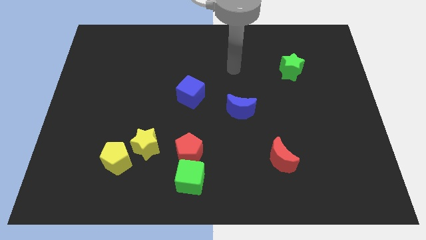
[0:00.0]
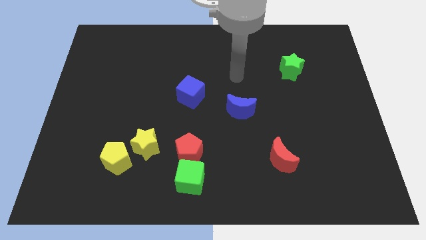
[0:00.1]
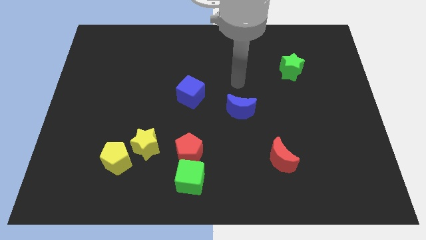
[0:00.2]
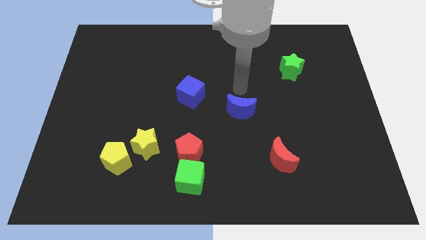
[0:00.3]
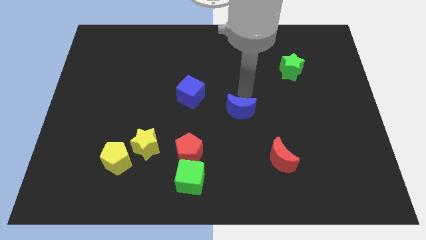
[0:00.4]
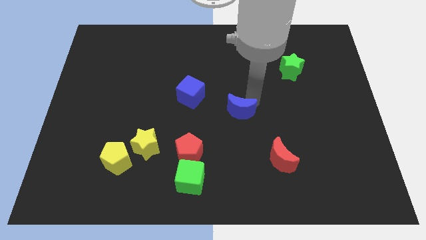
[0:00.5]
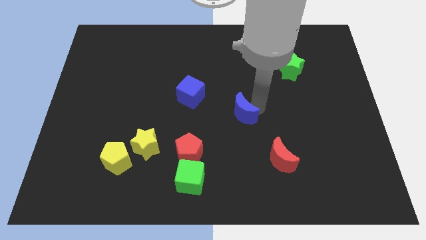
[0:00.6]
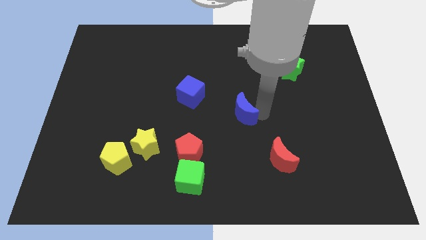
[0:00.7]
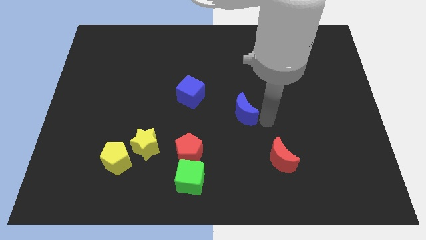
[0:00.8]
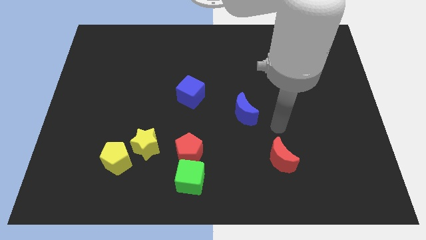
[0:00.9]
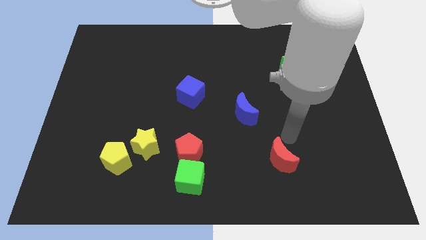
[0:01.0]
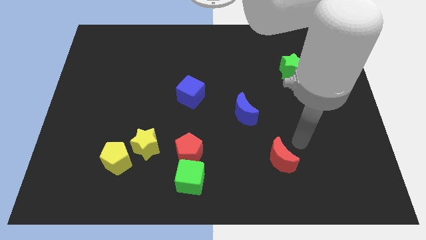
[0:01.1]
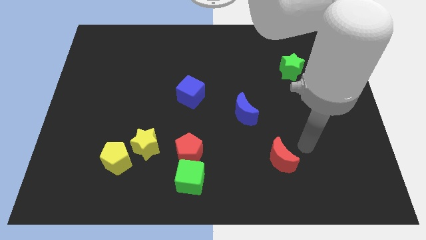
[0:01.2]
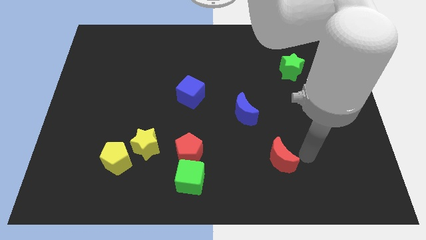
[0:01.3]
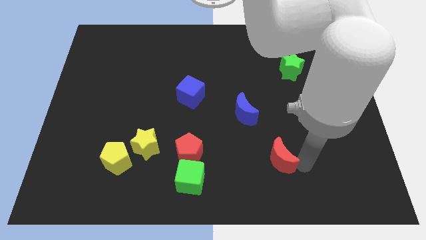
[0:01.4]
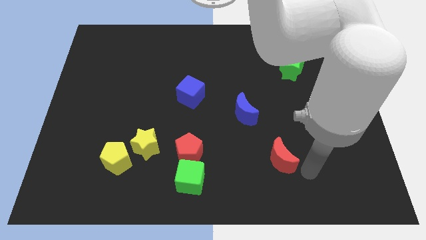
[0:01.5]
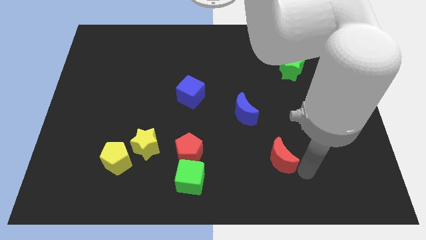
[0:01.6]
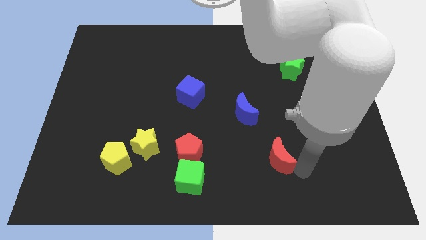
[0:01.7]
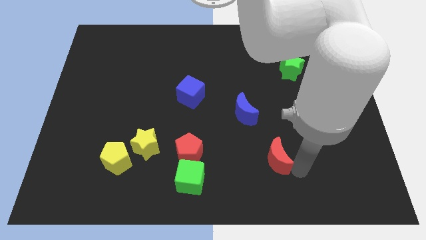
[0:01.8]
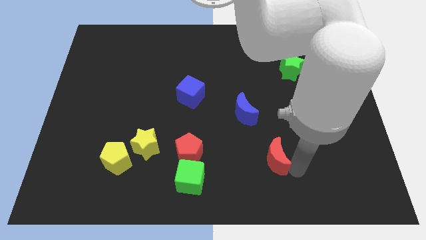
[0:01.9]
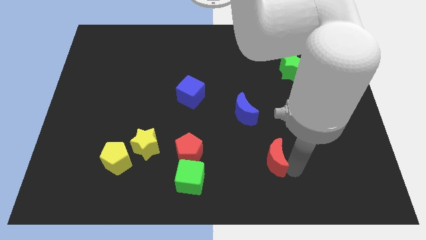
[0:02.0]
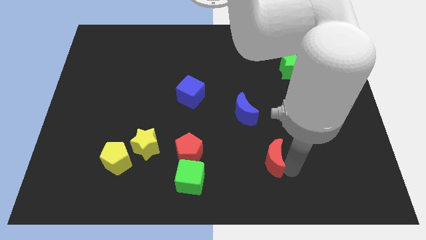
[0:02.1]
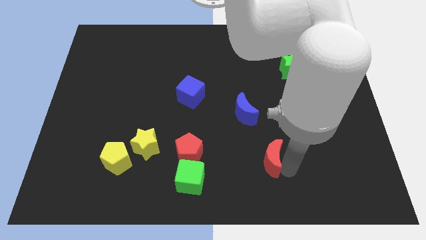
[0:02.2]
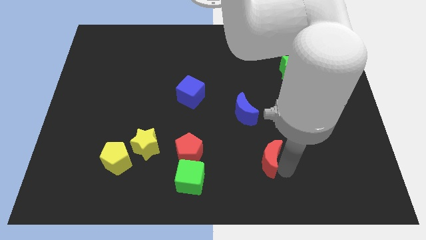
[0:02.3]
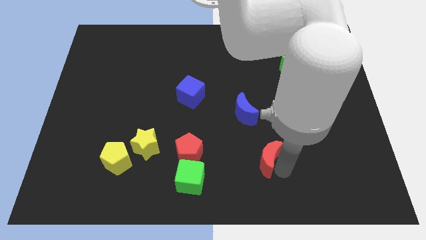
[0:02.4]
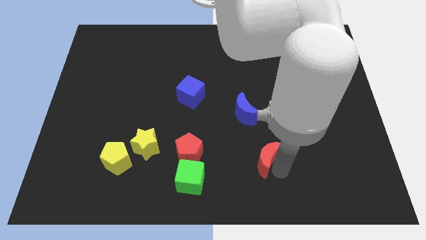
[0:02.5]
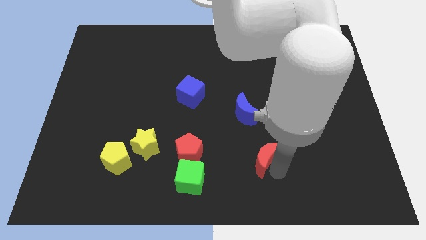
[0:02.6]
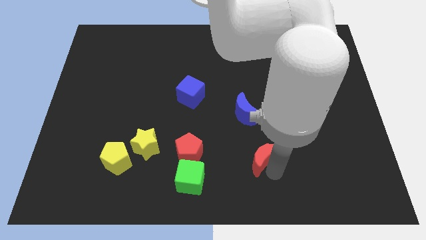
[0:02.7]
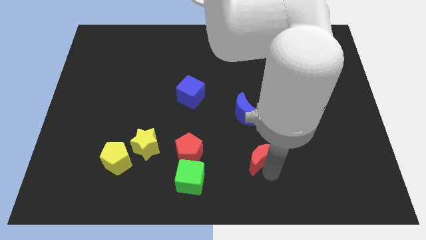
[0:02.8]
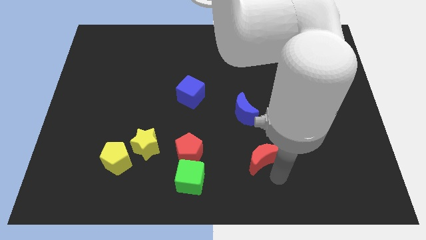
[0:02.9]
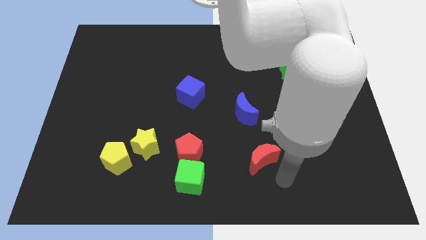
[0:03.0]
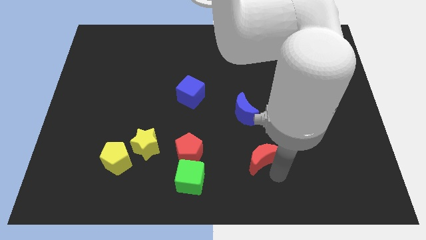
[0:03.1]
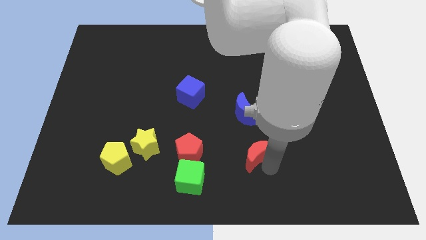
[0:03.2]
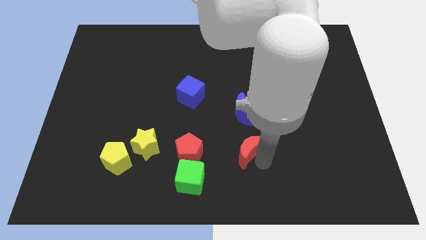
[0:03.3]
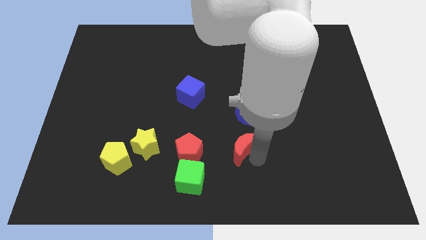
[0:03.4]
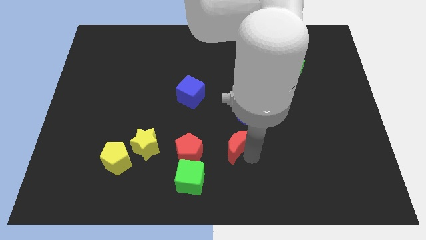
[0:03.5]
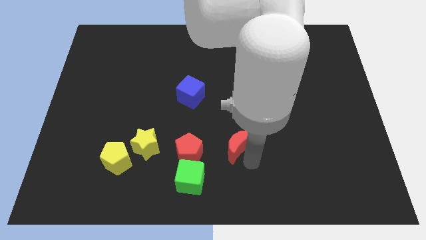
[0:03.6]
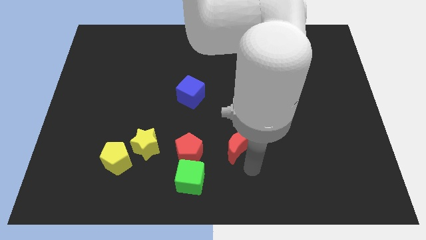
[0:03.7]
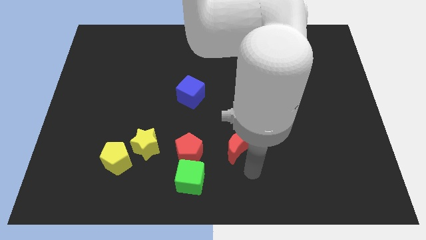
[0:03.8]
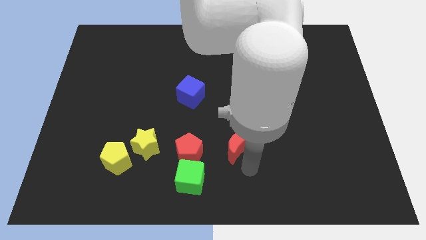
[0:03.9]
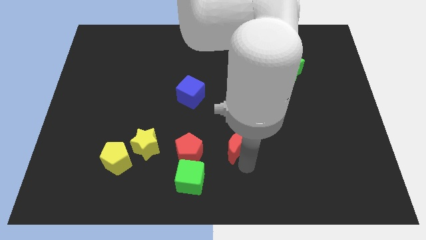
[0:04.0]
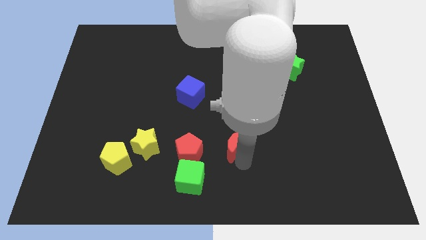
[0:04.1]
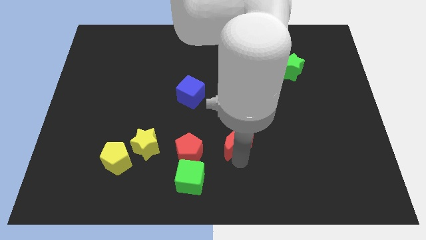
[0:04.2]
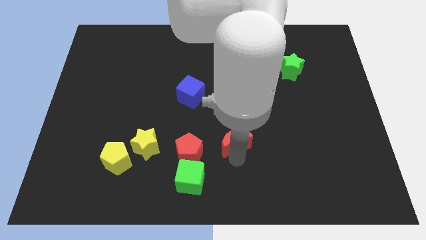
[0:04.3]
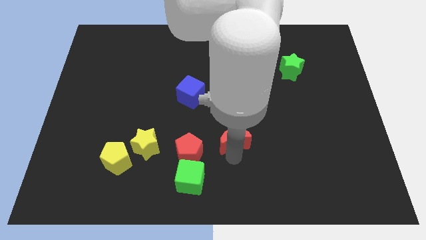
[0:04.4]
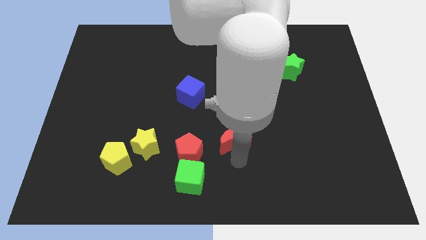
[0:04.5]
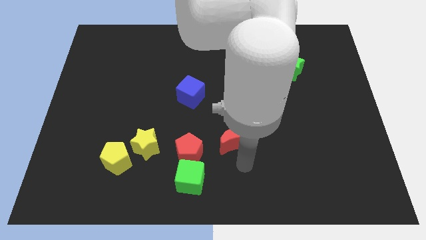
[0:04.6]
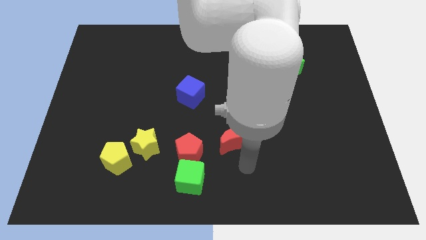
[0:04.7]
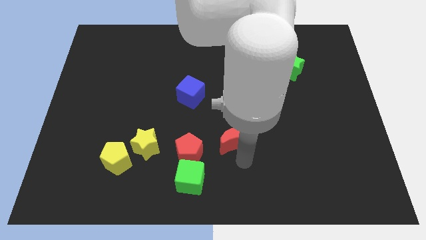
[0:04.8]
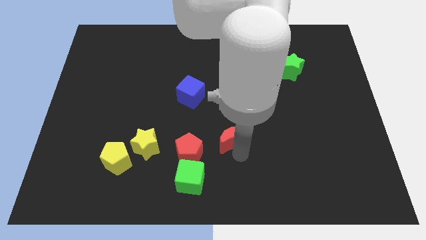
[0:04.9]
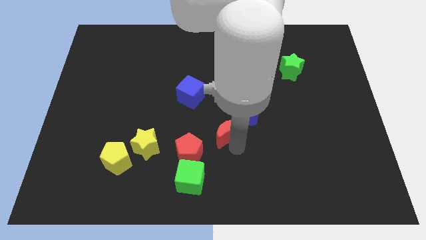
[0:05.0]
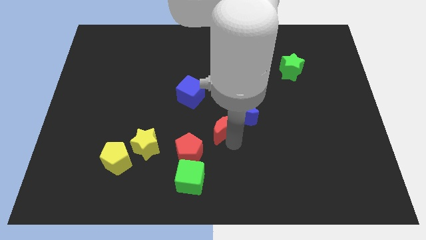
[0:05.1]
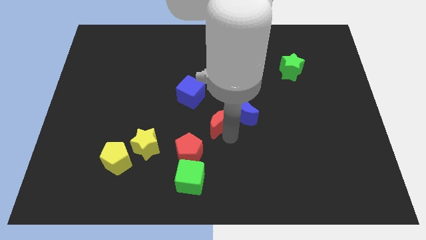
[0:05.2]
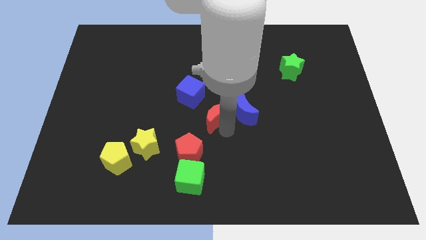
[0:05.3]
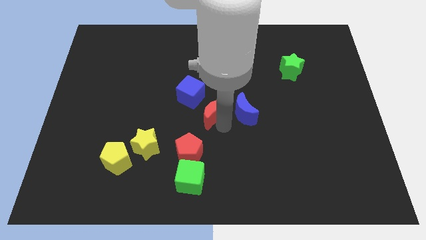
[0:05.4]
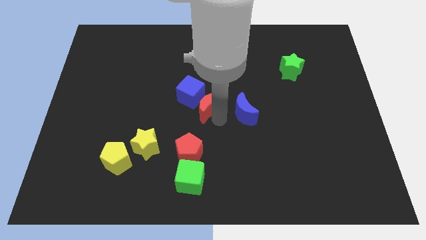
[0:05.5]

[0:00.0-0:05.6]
push the red moon towards the blue cube

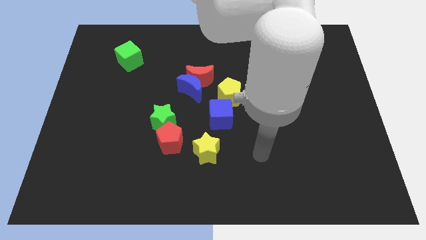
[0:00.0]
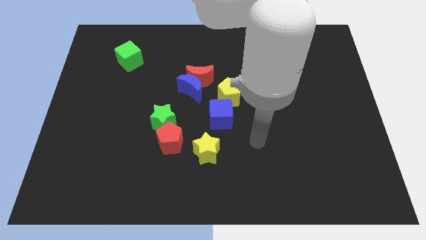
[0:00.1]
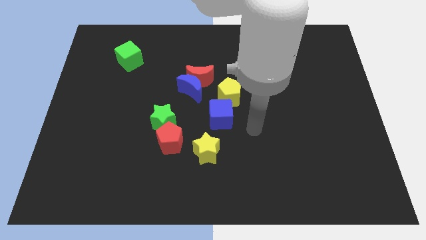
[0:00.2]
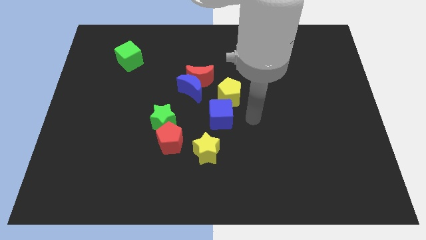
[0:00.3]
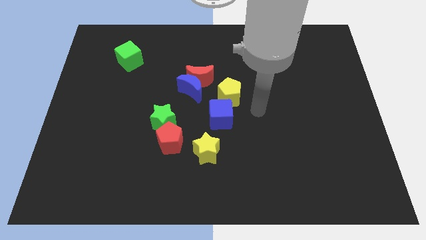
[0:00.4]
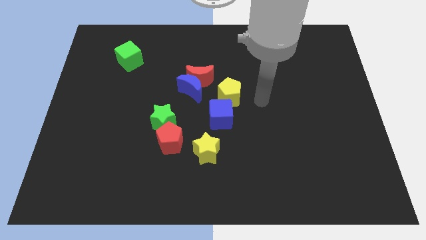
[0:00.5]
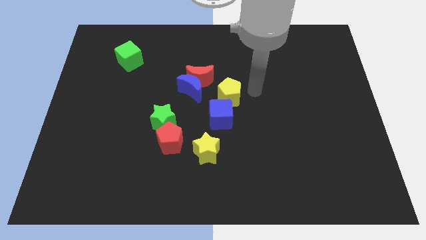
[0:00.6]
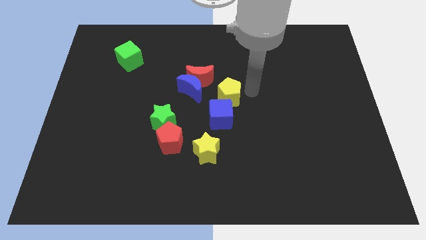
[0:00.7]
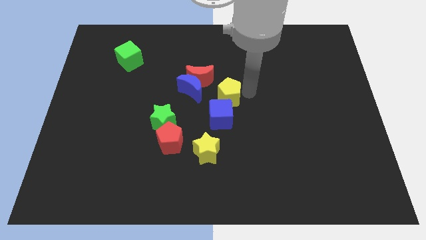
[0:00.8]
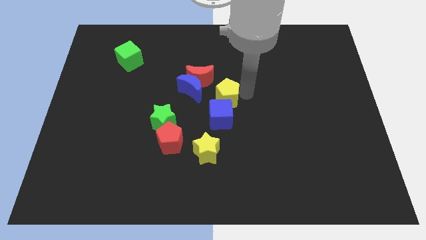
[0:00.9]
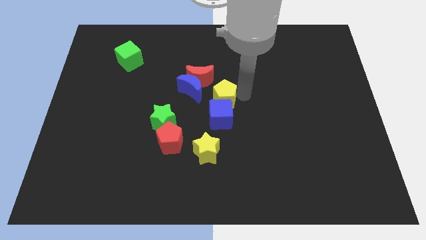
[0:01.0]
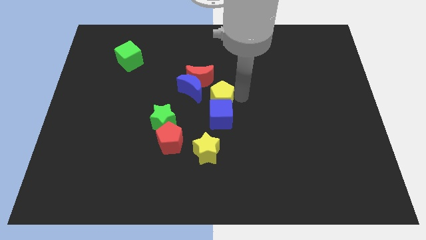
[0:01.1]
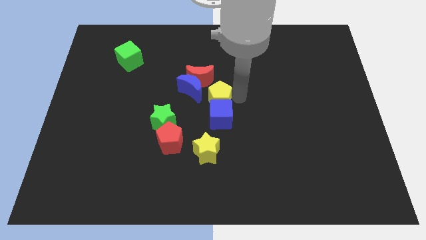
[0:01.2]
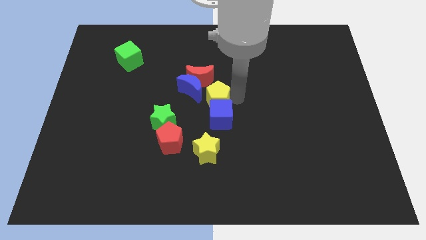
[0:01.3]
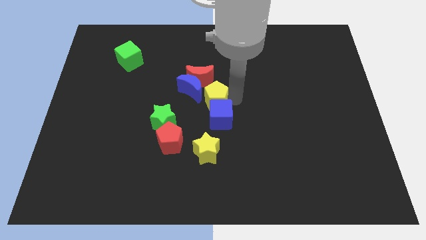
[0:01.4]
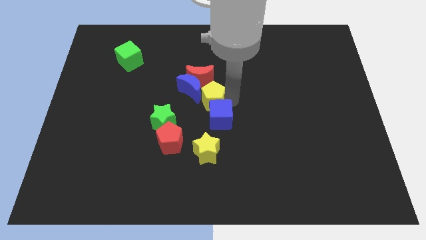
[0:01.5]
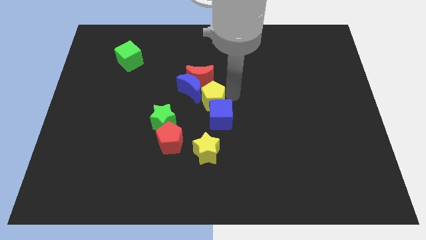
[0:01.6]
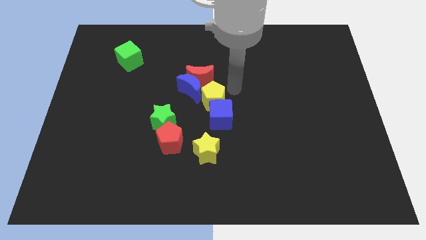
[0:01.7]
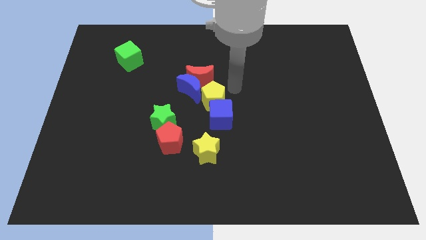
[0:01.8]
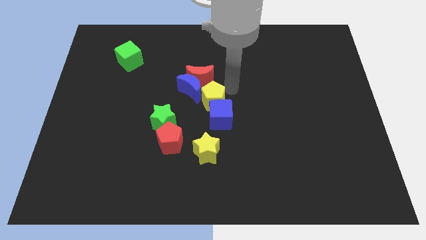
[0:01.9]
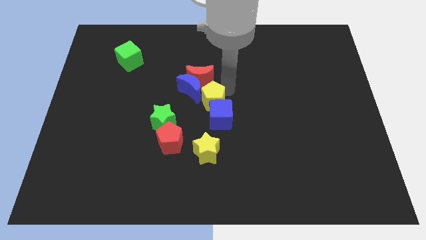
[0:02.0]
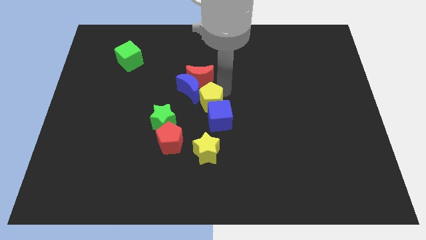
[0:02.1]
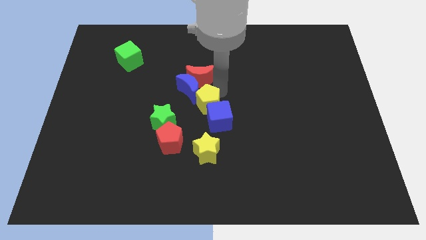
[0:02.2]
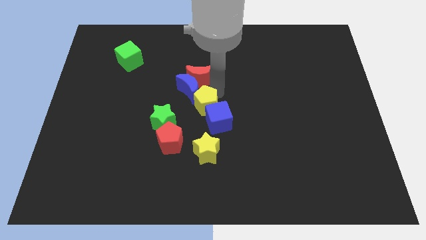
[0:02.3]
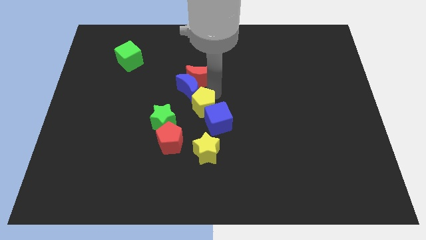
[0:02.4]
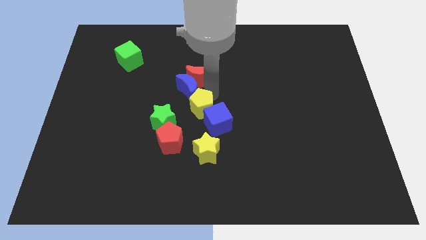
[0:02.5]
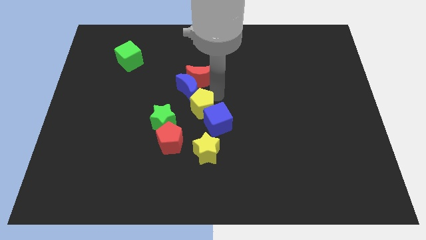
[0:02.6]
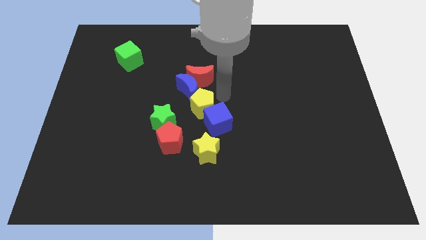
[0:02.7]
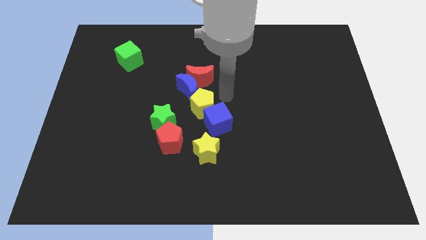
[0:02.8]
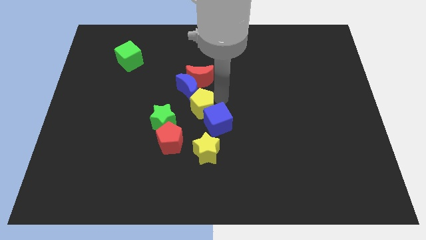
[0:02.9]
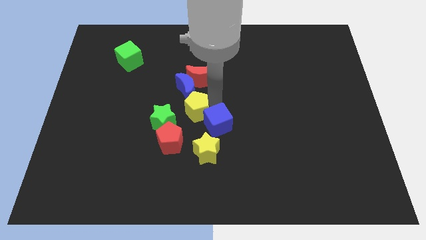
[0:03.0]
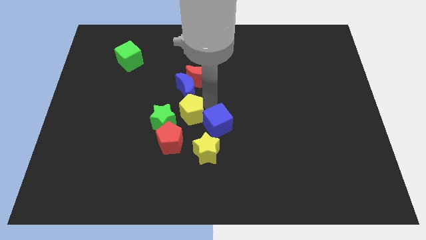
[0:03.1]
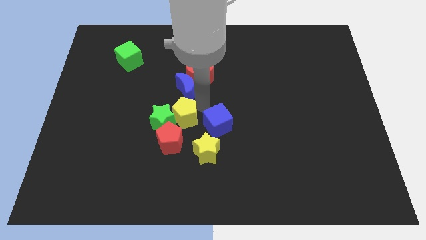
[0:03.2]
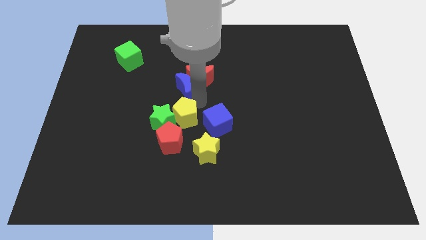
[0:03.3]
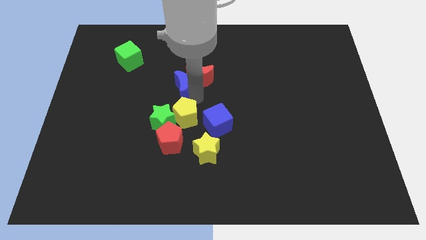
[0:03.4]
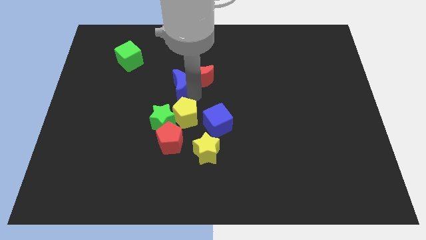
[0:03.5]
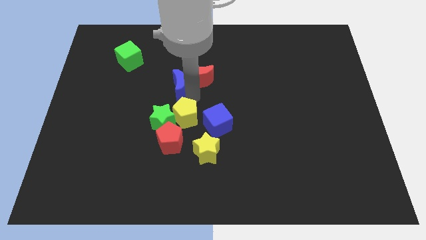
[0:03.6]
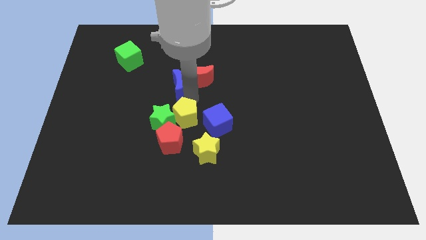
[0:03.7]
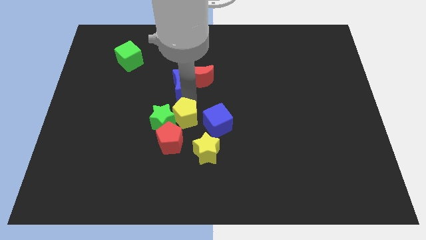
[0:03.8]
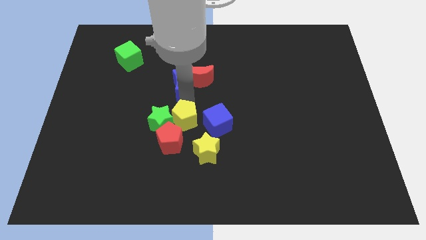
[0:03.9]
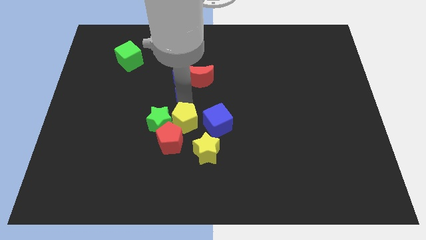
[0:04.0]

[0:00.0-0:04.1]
push the yellow pentagon towards the red pentagon
